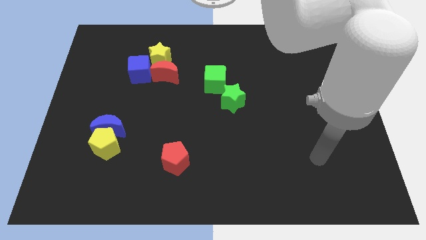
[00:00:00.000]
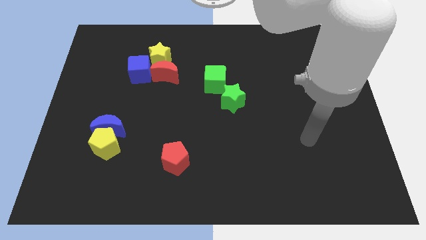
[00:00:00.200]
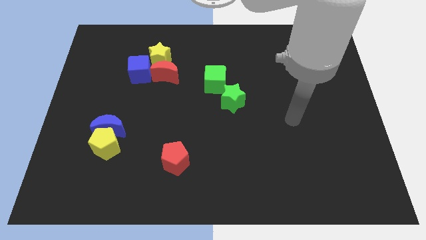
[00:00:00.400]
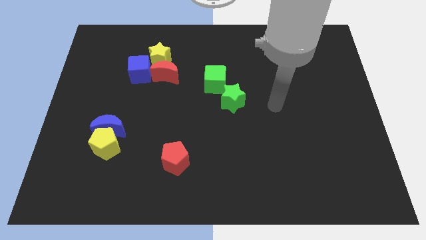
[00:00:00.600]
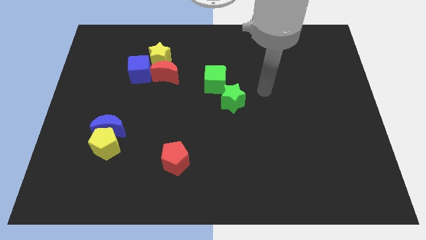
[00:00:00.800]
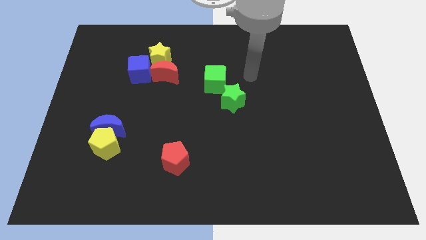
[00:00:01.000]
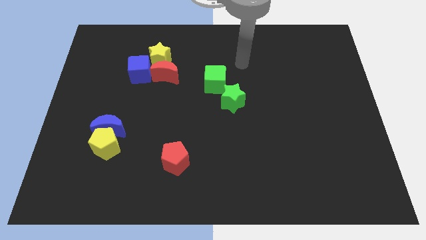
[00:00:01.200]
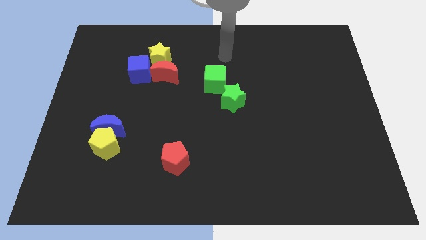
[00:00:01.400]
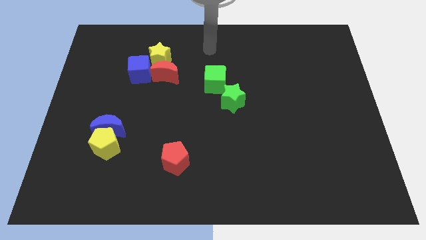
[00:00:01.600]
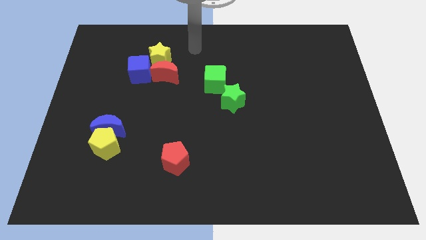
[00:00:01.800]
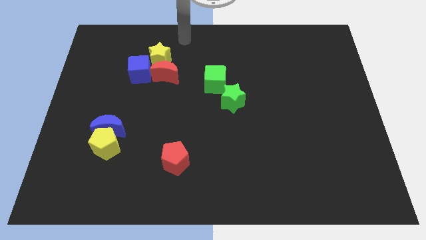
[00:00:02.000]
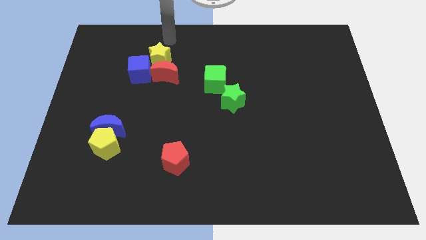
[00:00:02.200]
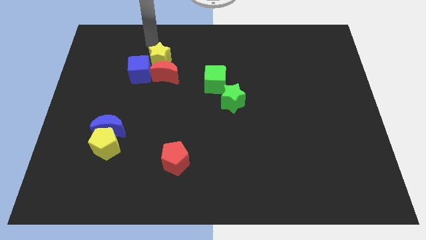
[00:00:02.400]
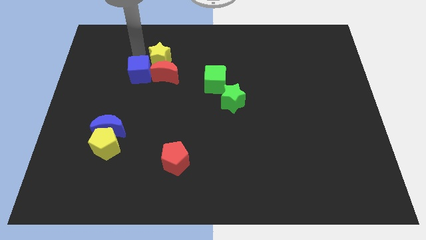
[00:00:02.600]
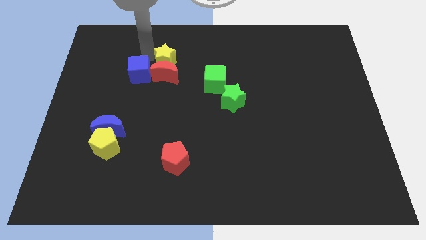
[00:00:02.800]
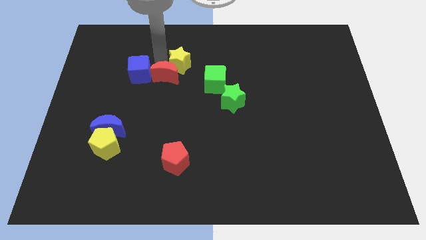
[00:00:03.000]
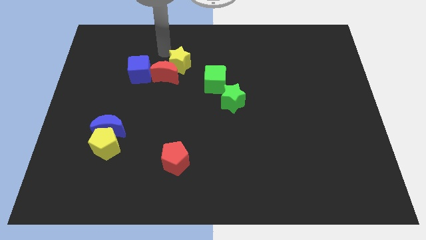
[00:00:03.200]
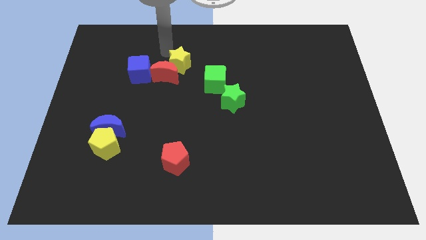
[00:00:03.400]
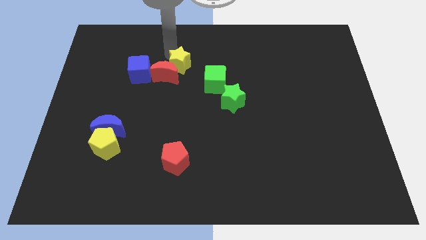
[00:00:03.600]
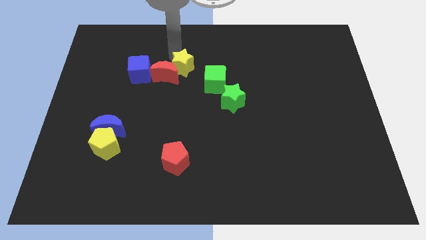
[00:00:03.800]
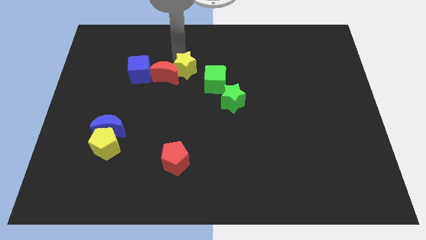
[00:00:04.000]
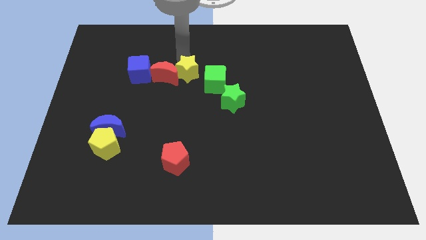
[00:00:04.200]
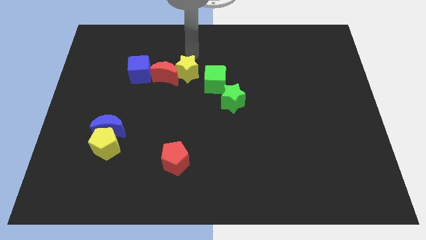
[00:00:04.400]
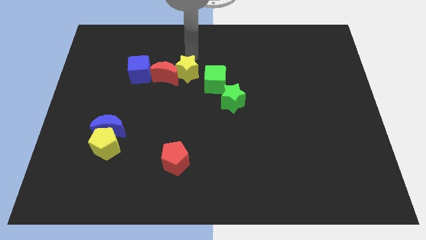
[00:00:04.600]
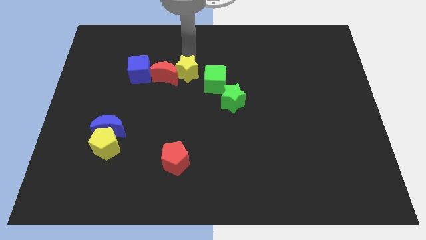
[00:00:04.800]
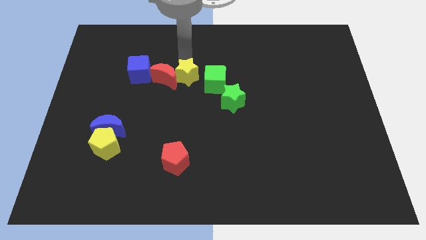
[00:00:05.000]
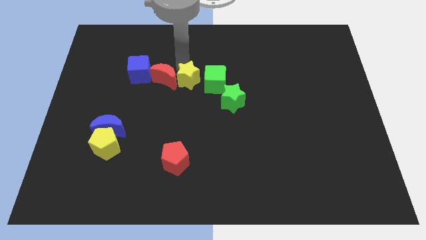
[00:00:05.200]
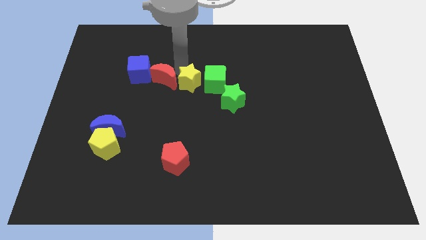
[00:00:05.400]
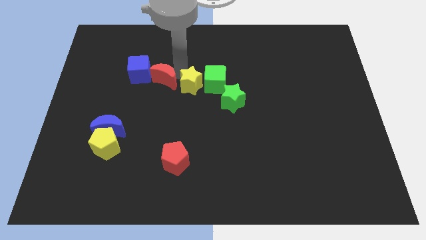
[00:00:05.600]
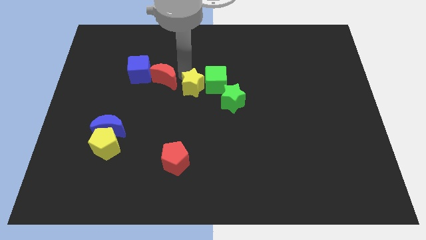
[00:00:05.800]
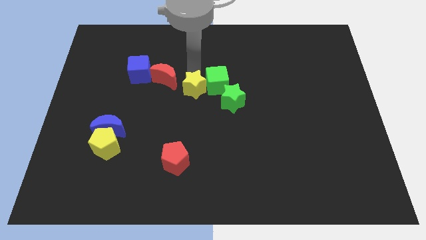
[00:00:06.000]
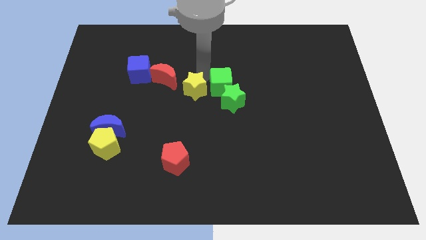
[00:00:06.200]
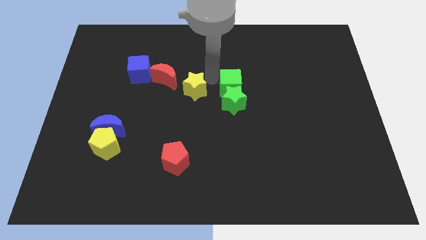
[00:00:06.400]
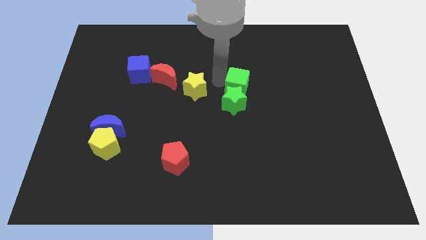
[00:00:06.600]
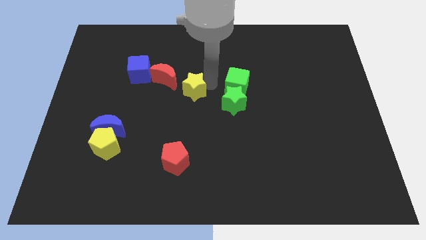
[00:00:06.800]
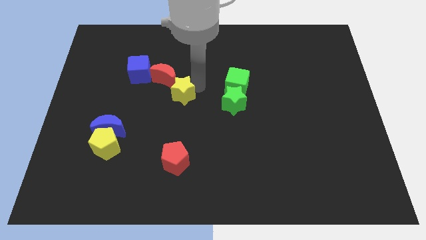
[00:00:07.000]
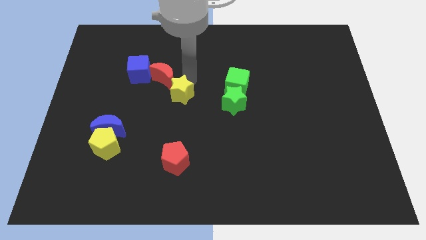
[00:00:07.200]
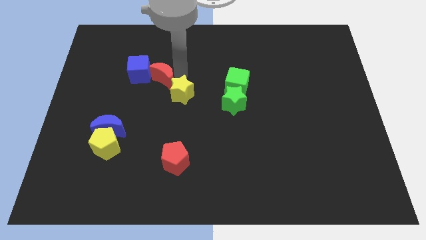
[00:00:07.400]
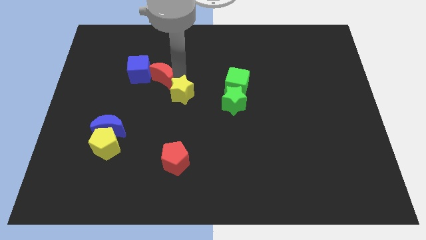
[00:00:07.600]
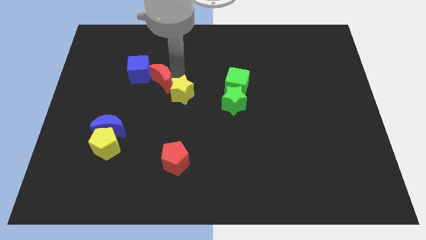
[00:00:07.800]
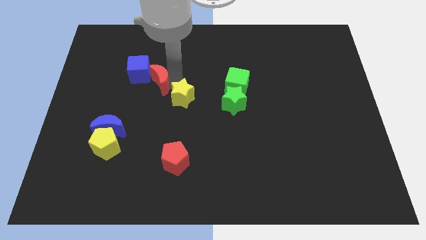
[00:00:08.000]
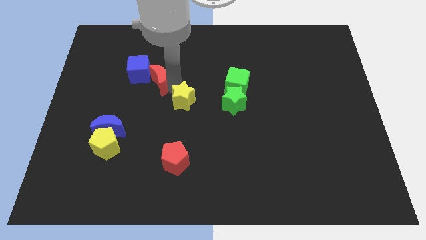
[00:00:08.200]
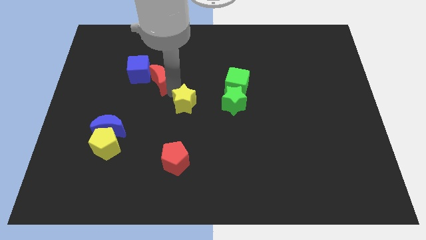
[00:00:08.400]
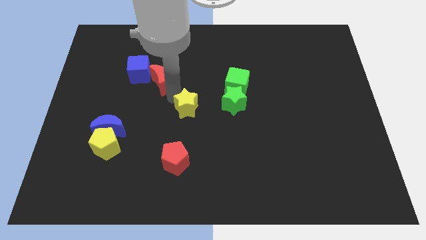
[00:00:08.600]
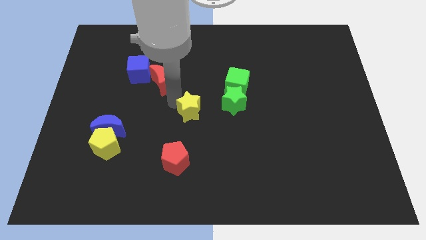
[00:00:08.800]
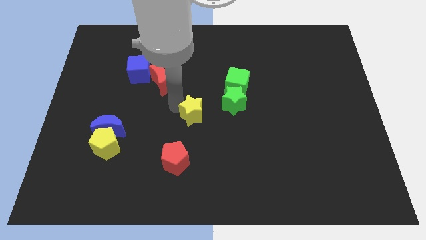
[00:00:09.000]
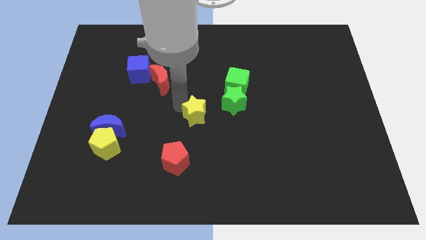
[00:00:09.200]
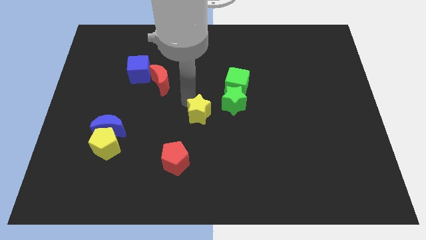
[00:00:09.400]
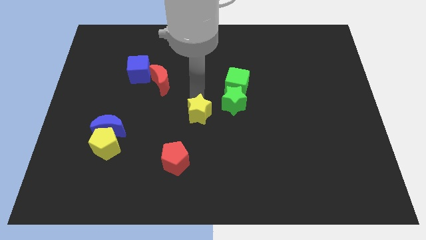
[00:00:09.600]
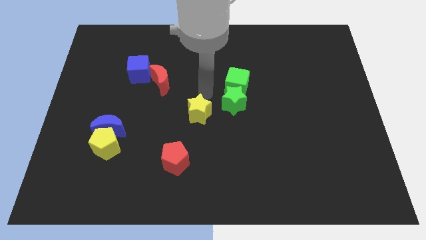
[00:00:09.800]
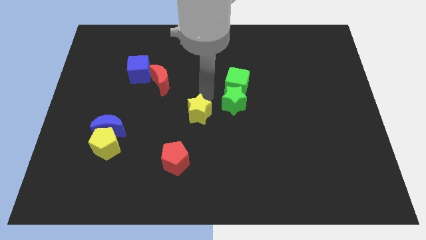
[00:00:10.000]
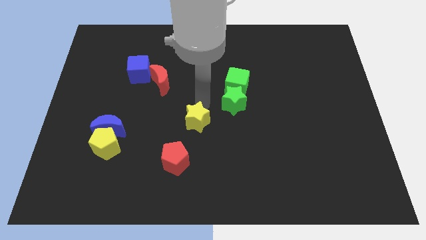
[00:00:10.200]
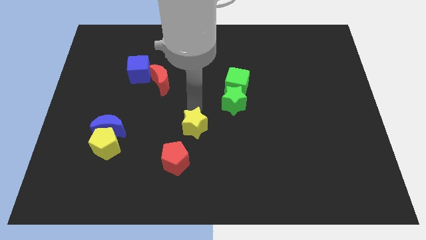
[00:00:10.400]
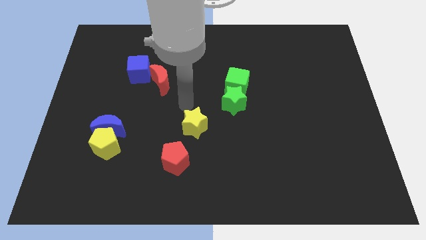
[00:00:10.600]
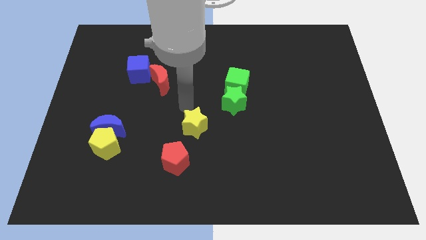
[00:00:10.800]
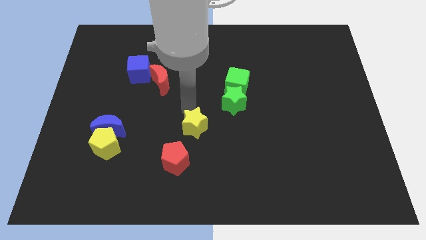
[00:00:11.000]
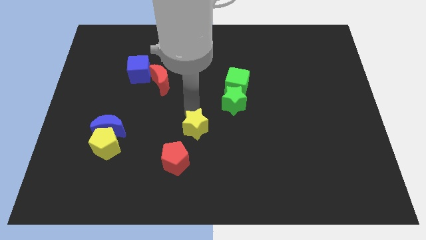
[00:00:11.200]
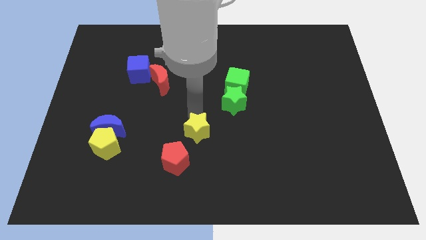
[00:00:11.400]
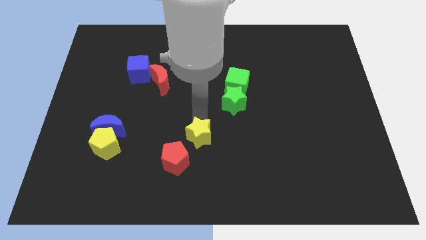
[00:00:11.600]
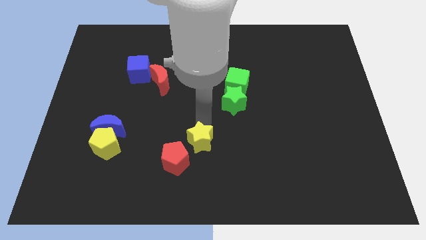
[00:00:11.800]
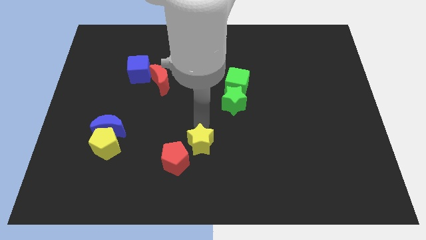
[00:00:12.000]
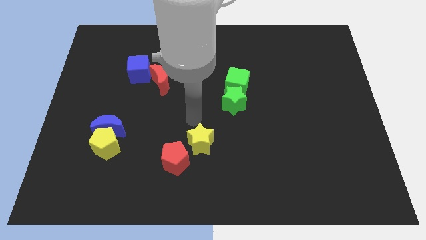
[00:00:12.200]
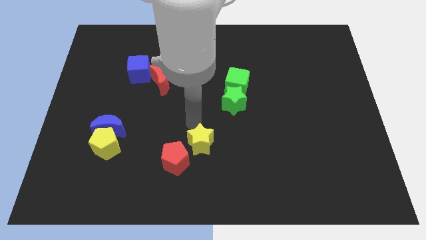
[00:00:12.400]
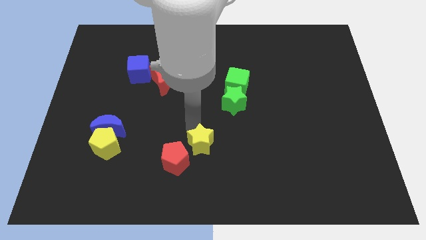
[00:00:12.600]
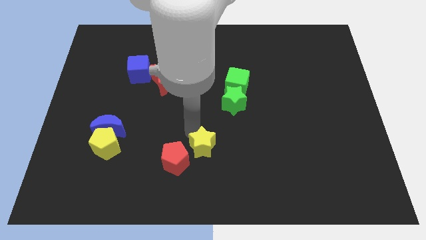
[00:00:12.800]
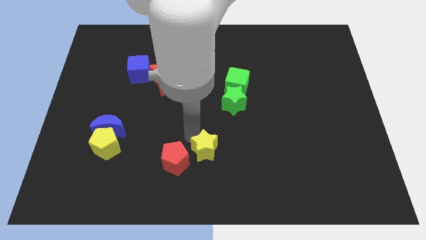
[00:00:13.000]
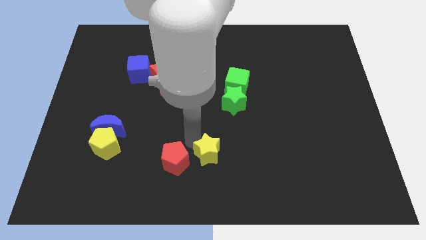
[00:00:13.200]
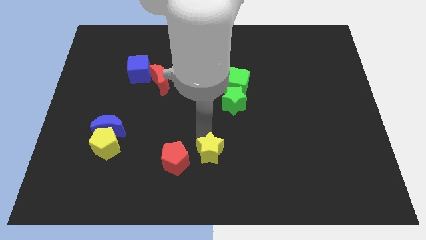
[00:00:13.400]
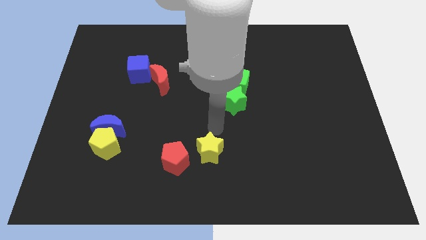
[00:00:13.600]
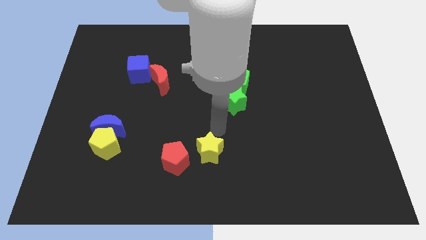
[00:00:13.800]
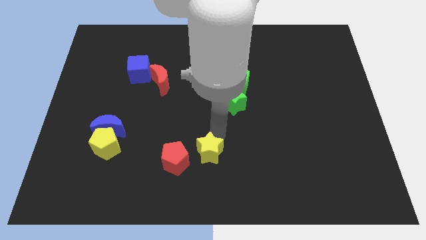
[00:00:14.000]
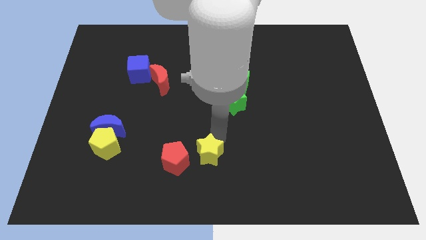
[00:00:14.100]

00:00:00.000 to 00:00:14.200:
slide the yellow star to the bottom side
